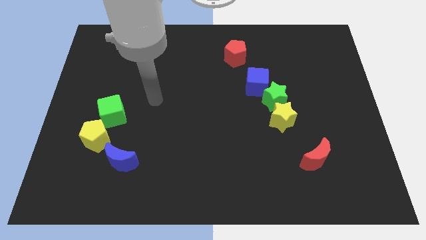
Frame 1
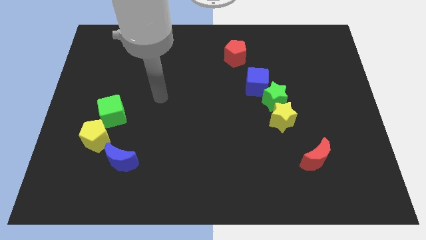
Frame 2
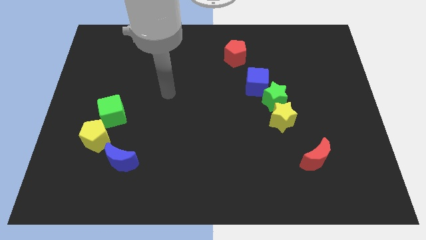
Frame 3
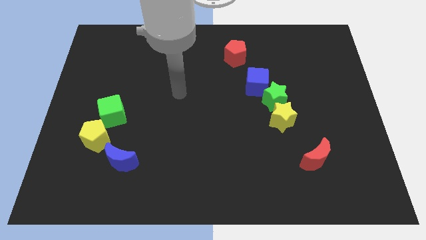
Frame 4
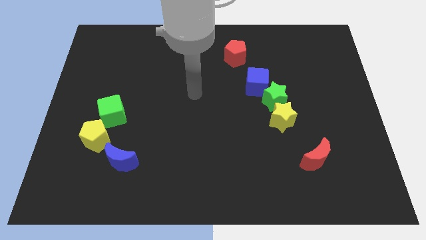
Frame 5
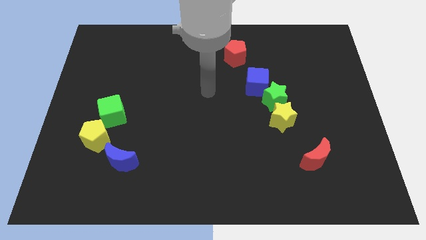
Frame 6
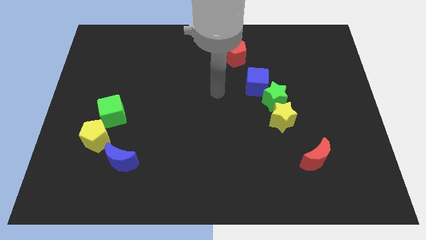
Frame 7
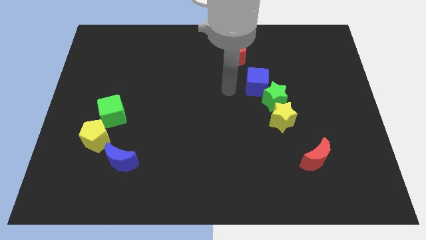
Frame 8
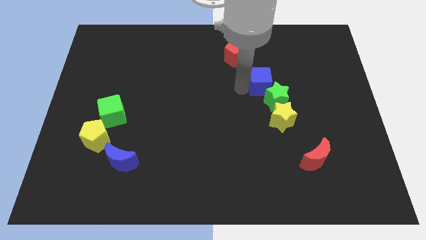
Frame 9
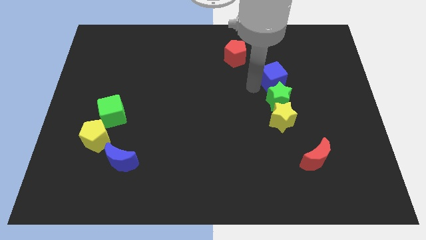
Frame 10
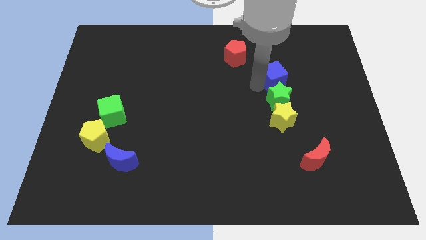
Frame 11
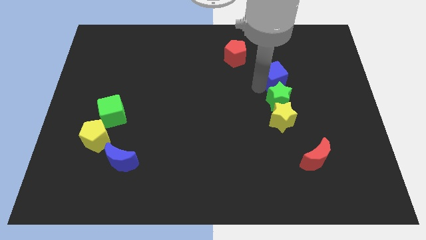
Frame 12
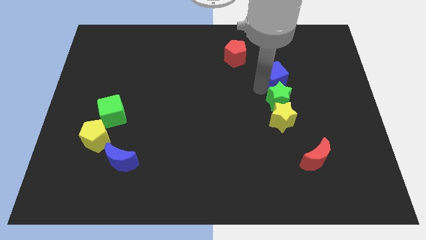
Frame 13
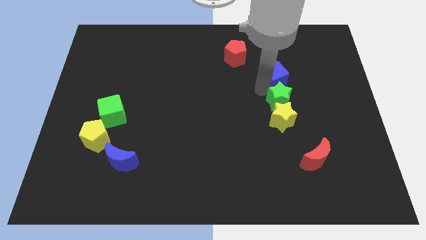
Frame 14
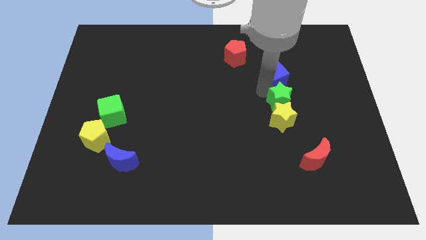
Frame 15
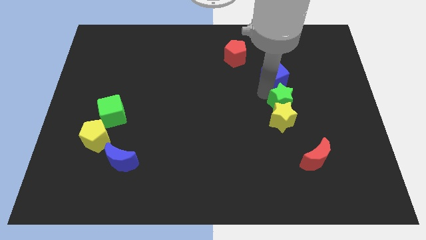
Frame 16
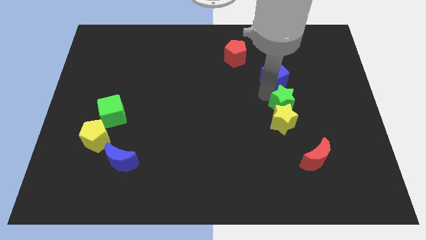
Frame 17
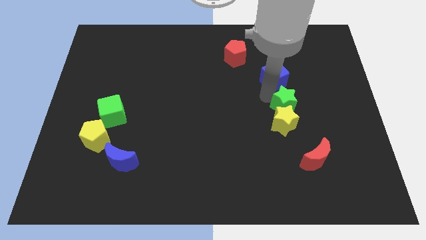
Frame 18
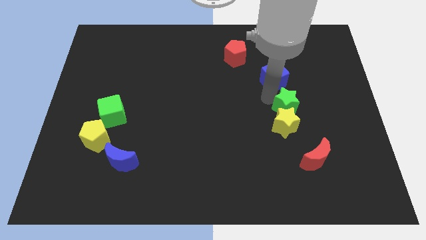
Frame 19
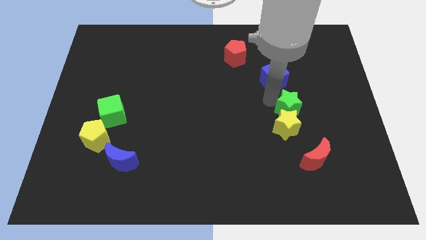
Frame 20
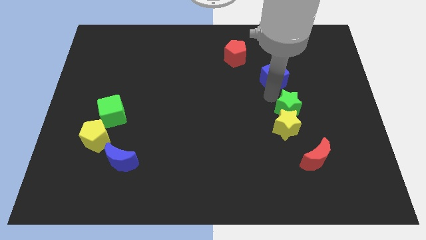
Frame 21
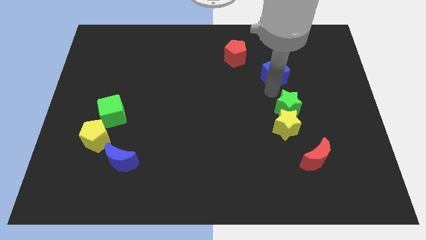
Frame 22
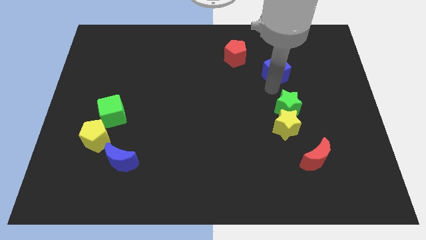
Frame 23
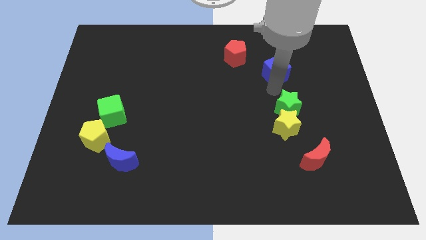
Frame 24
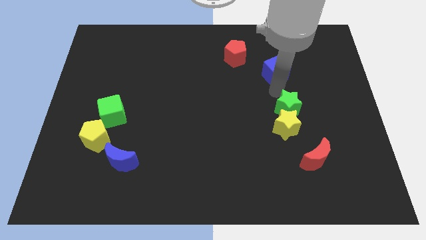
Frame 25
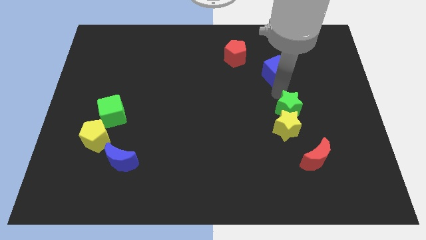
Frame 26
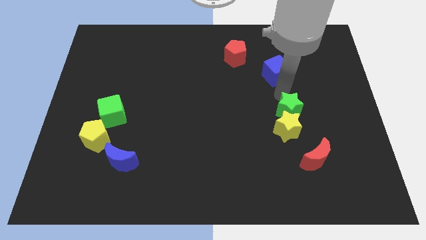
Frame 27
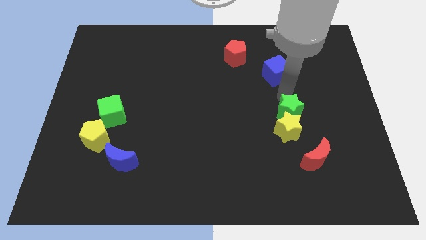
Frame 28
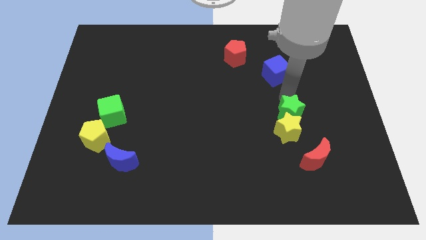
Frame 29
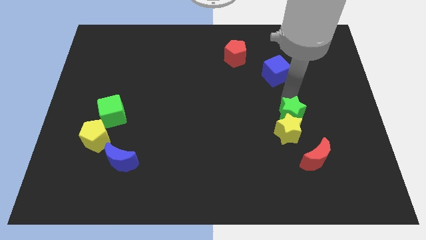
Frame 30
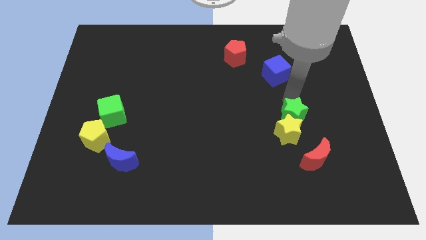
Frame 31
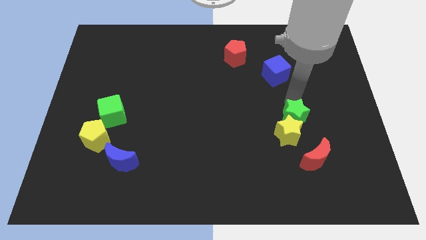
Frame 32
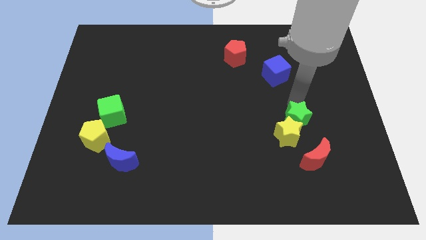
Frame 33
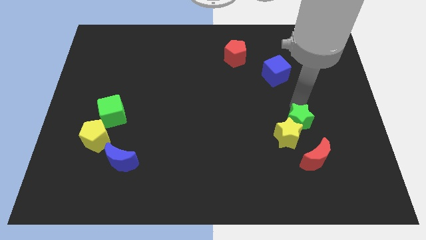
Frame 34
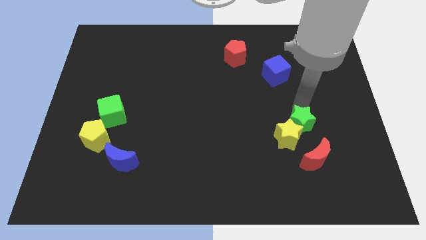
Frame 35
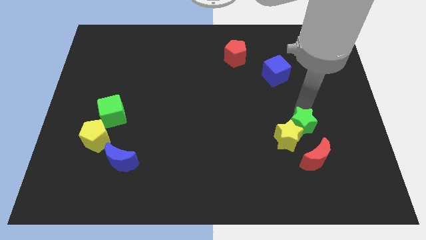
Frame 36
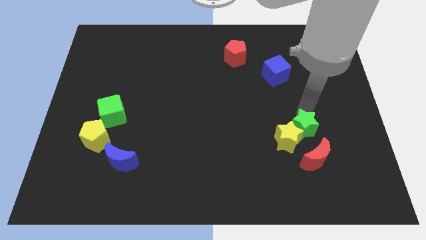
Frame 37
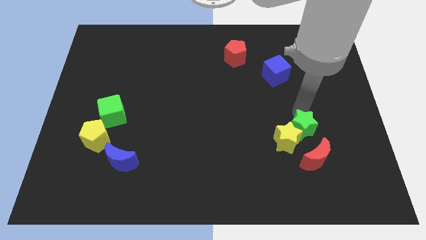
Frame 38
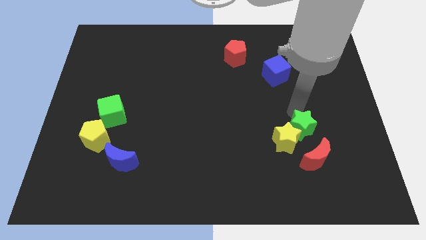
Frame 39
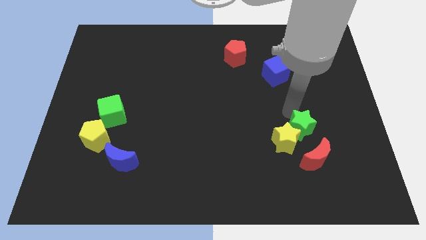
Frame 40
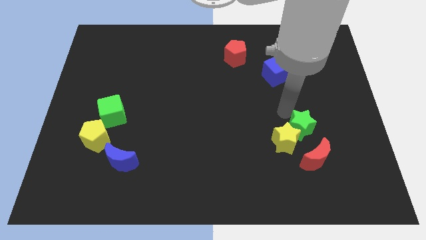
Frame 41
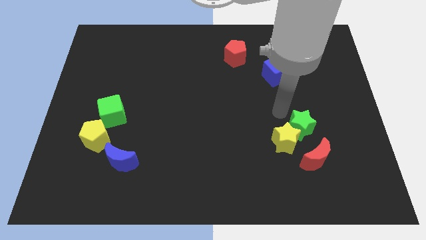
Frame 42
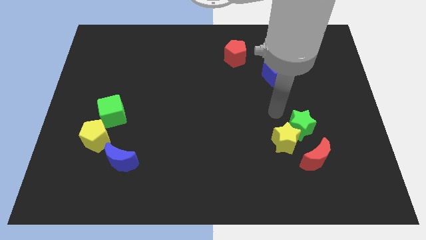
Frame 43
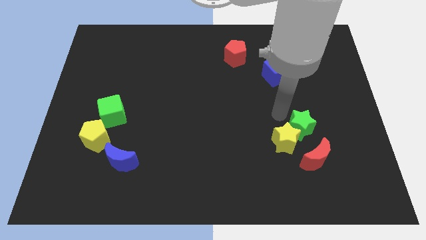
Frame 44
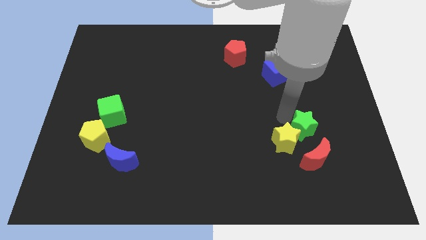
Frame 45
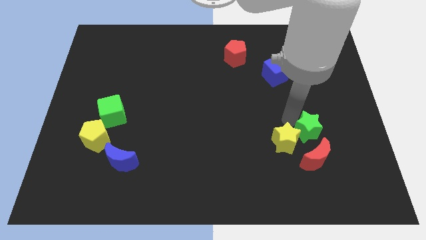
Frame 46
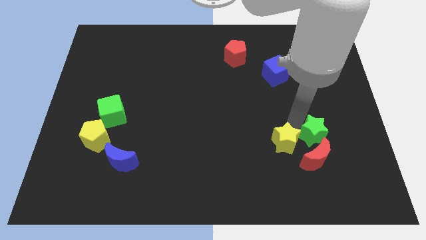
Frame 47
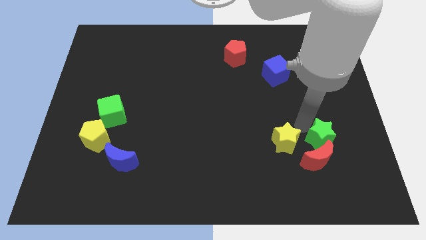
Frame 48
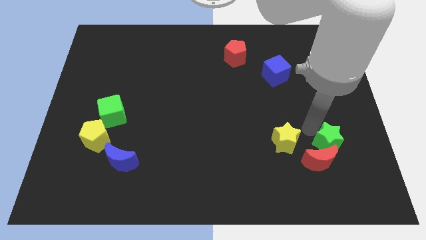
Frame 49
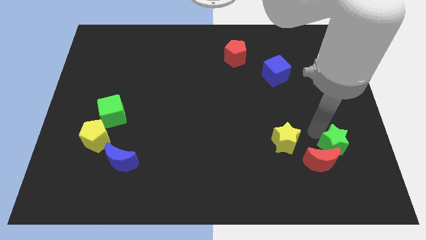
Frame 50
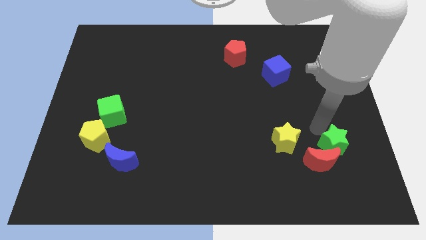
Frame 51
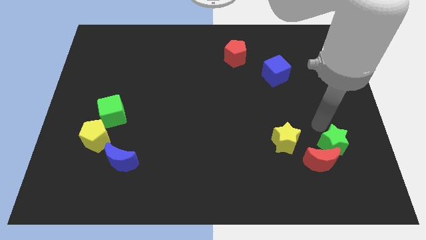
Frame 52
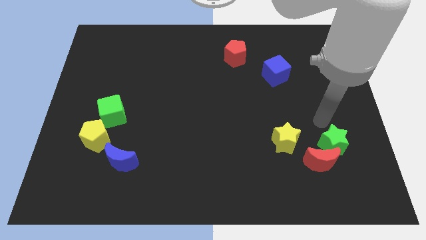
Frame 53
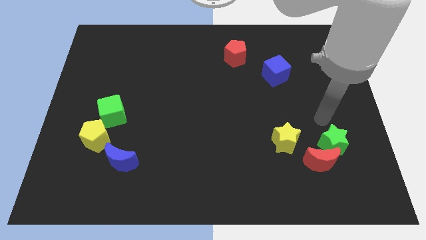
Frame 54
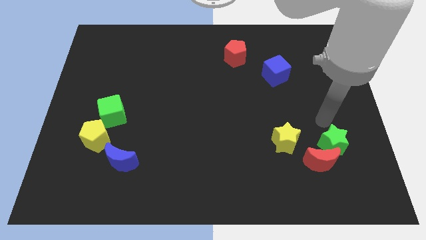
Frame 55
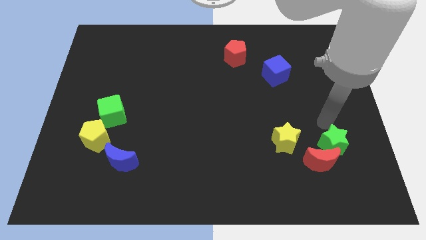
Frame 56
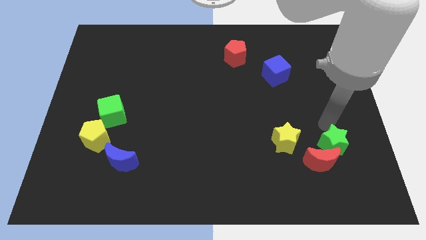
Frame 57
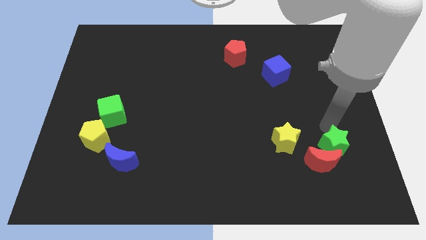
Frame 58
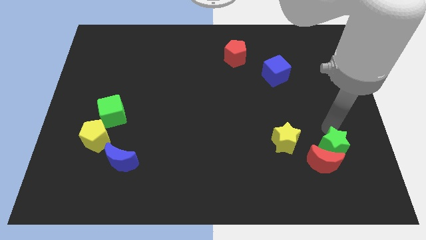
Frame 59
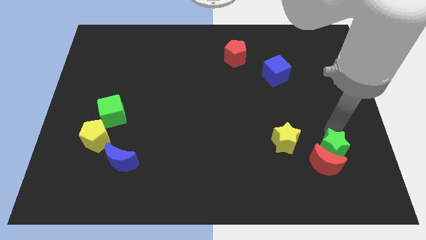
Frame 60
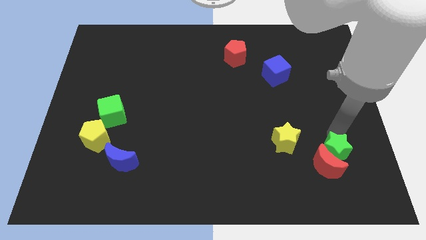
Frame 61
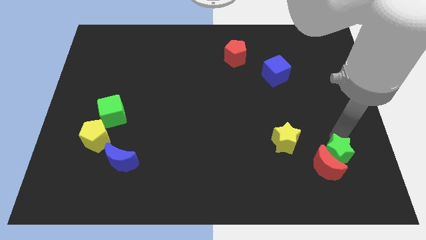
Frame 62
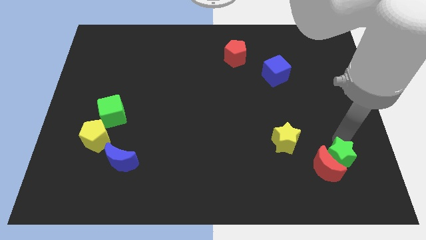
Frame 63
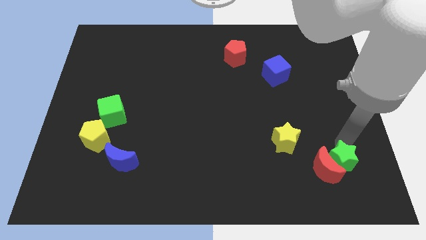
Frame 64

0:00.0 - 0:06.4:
put the green star to the bottom right side of the red moon
